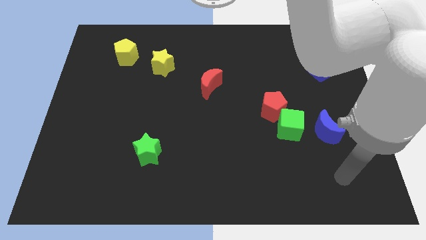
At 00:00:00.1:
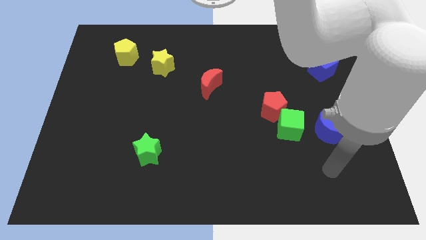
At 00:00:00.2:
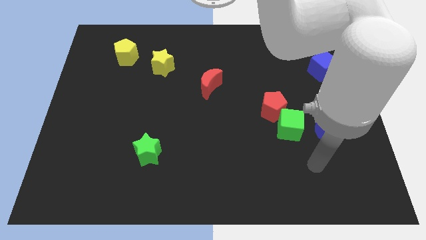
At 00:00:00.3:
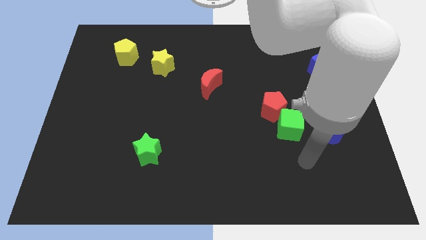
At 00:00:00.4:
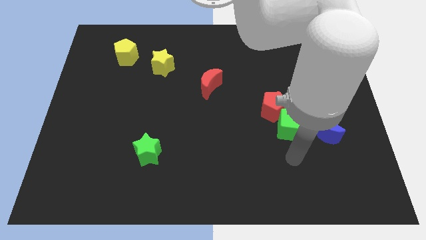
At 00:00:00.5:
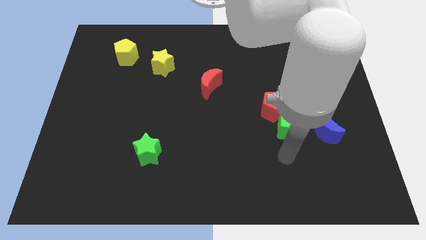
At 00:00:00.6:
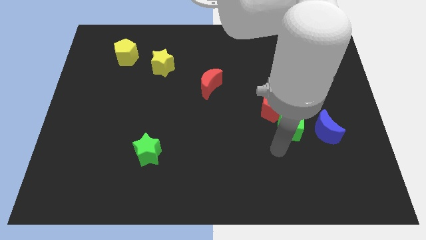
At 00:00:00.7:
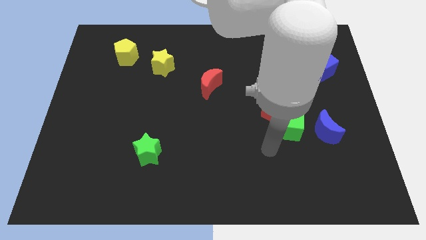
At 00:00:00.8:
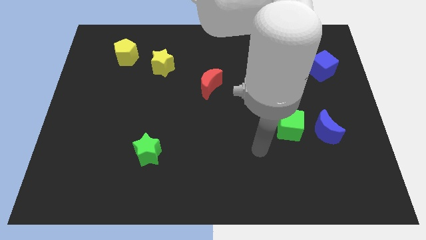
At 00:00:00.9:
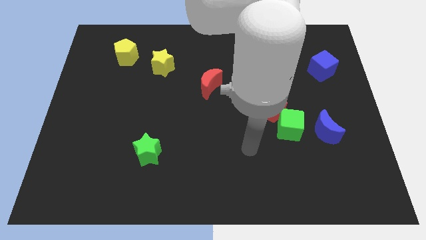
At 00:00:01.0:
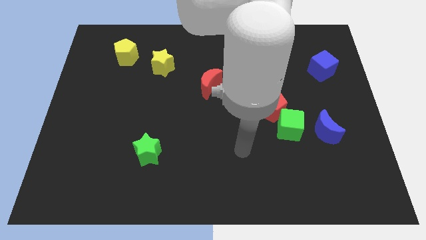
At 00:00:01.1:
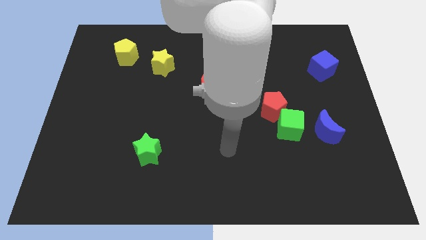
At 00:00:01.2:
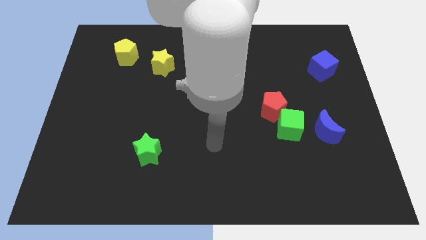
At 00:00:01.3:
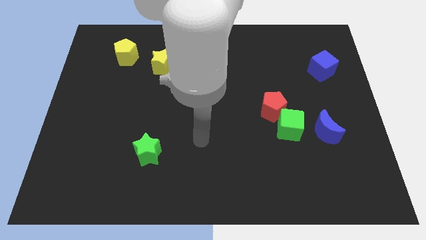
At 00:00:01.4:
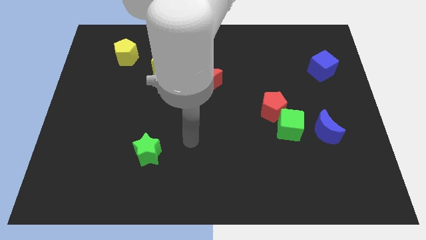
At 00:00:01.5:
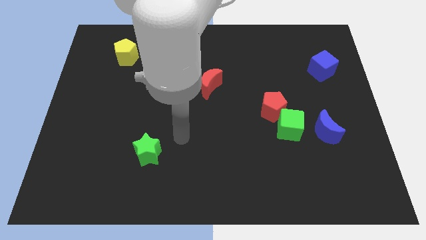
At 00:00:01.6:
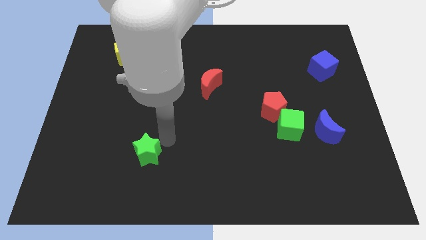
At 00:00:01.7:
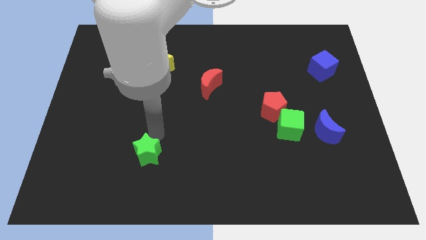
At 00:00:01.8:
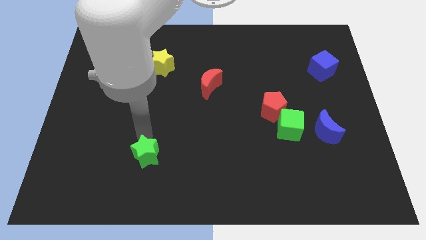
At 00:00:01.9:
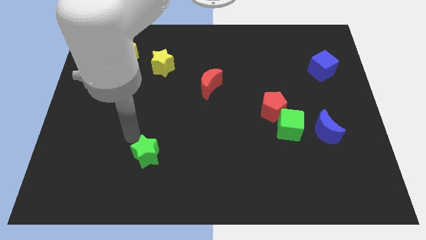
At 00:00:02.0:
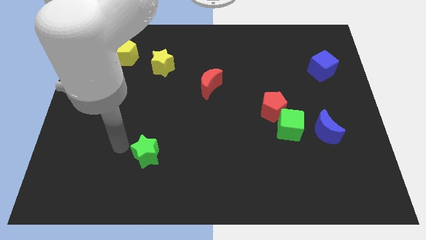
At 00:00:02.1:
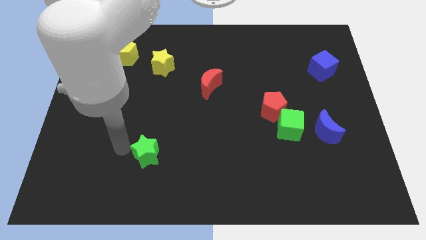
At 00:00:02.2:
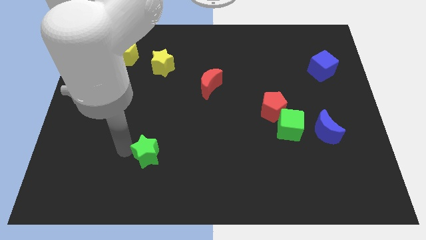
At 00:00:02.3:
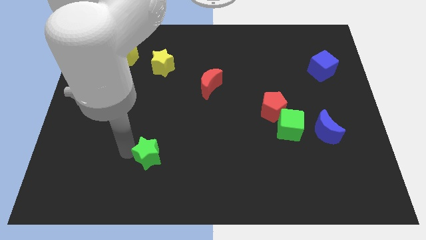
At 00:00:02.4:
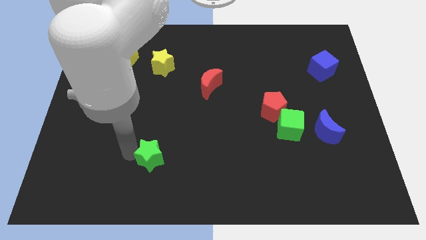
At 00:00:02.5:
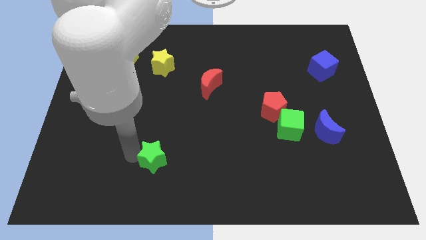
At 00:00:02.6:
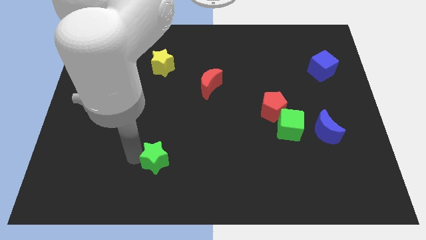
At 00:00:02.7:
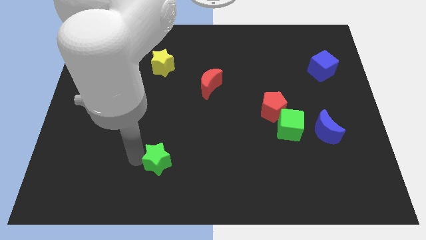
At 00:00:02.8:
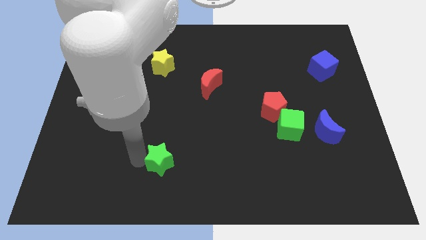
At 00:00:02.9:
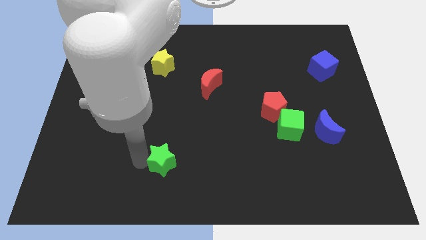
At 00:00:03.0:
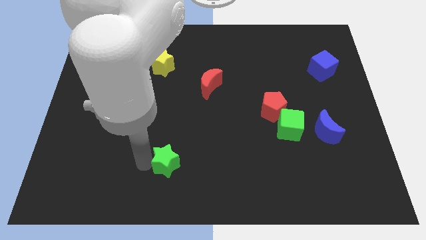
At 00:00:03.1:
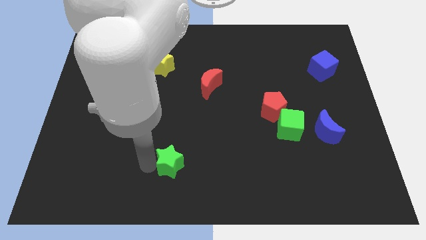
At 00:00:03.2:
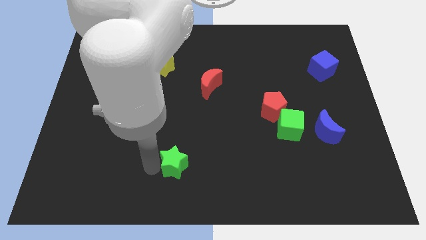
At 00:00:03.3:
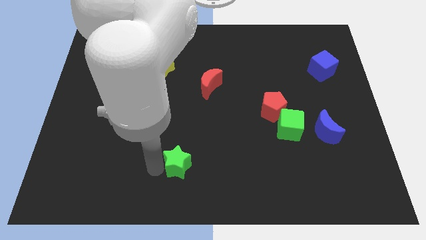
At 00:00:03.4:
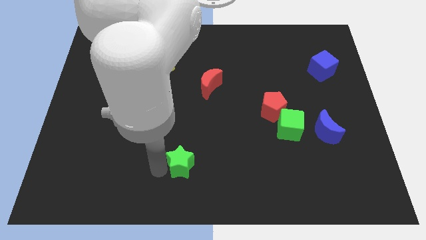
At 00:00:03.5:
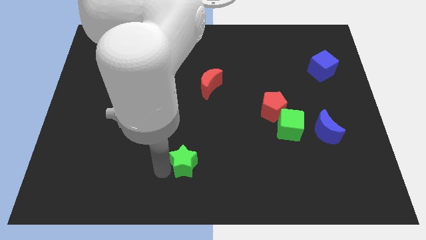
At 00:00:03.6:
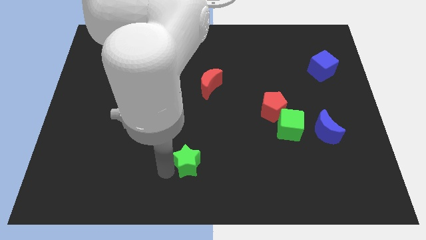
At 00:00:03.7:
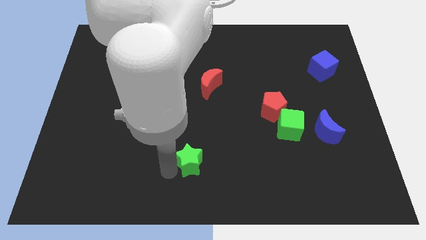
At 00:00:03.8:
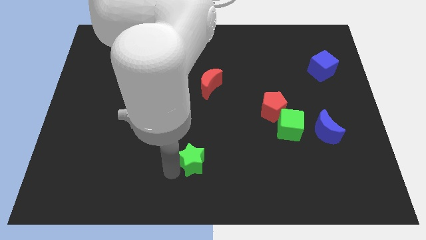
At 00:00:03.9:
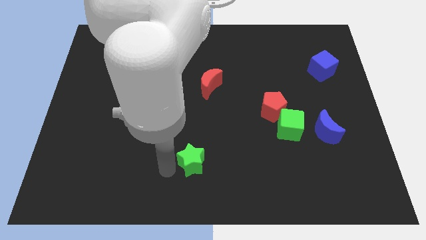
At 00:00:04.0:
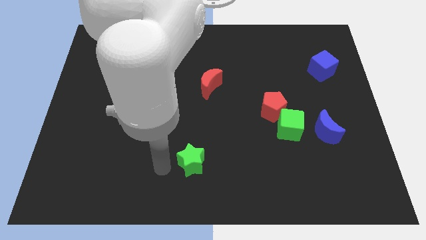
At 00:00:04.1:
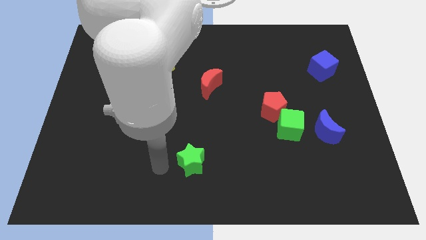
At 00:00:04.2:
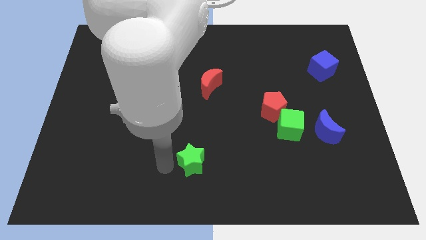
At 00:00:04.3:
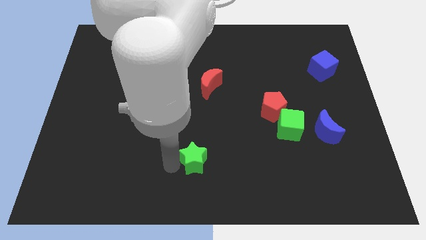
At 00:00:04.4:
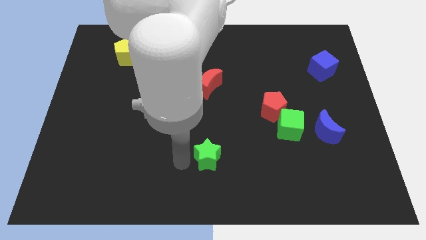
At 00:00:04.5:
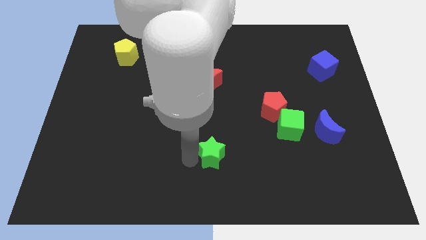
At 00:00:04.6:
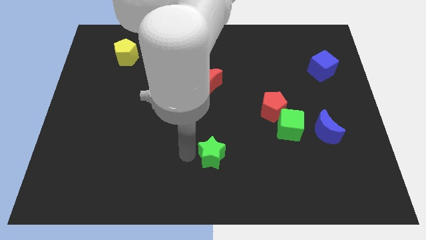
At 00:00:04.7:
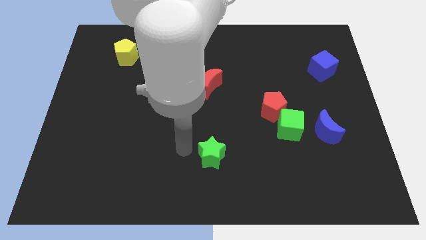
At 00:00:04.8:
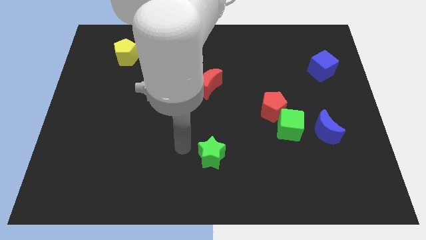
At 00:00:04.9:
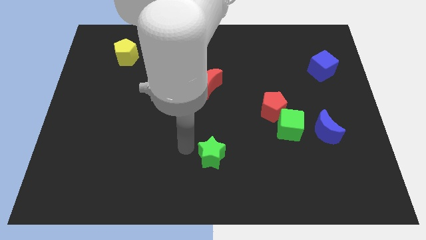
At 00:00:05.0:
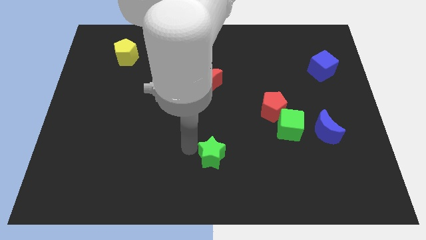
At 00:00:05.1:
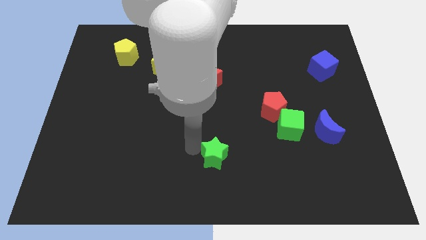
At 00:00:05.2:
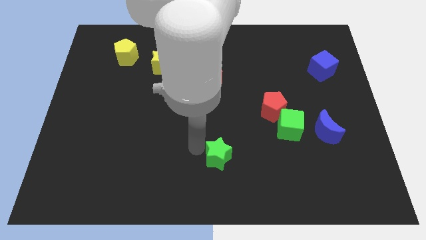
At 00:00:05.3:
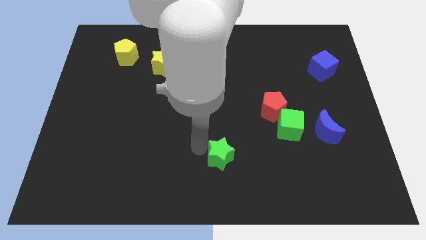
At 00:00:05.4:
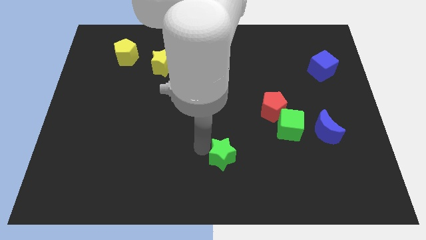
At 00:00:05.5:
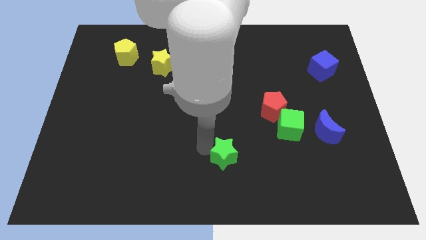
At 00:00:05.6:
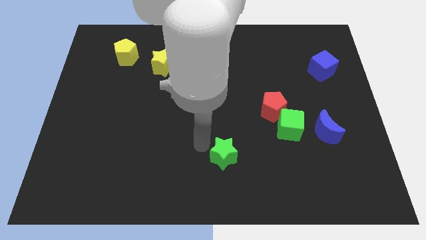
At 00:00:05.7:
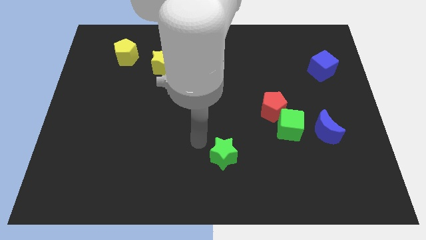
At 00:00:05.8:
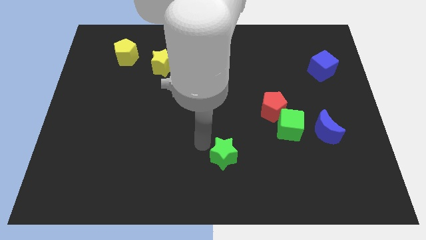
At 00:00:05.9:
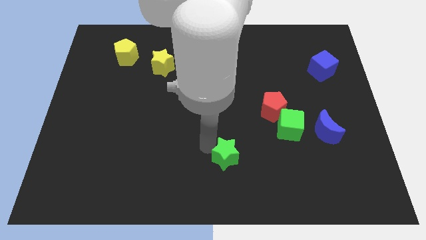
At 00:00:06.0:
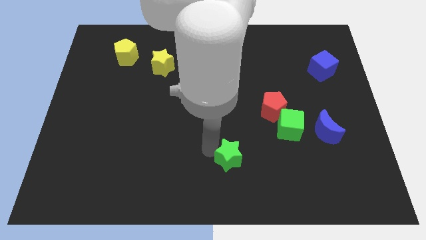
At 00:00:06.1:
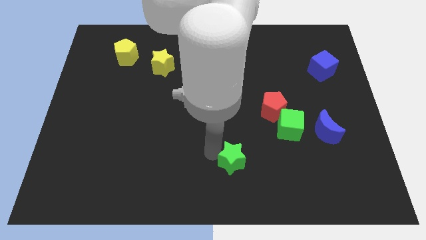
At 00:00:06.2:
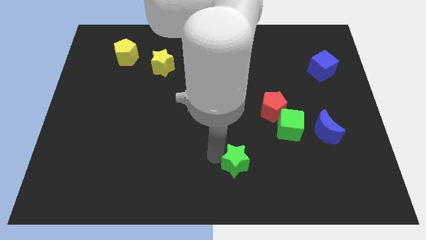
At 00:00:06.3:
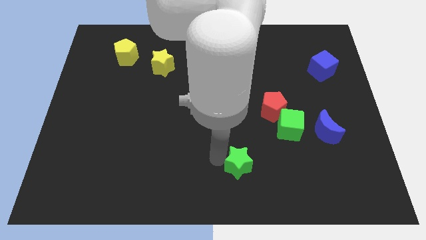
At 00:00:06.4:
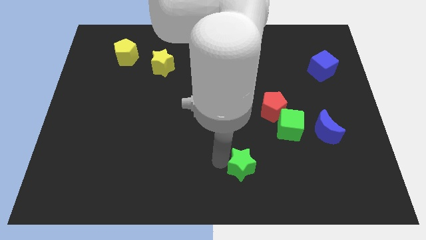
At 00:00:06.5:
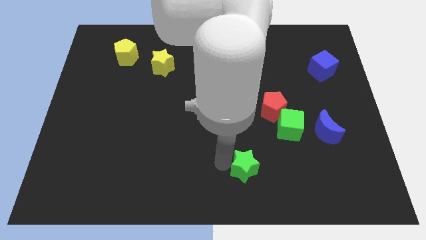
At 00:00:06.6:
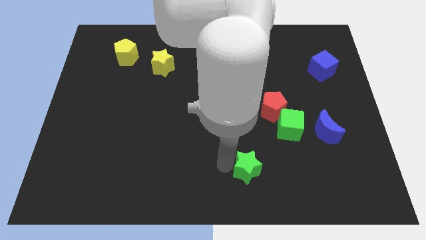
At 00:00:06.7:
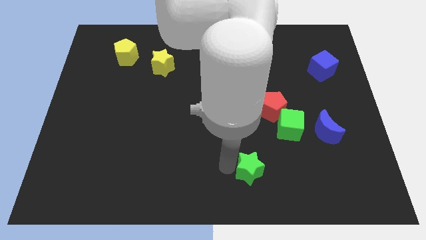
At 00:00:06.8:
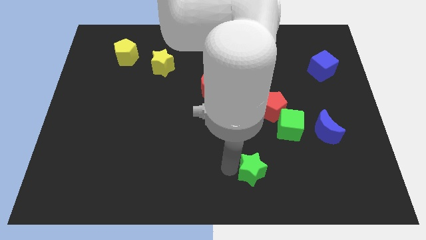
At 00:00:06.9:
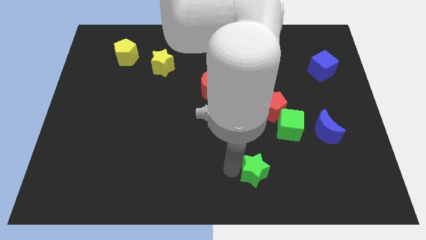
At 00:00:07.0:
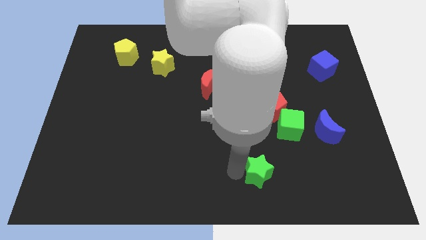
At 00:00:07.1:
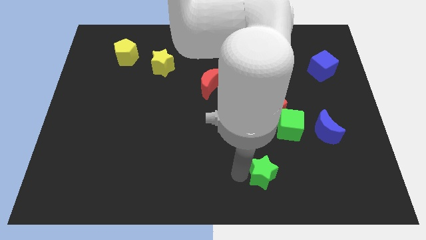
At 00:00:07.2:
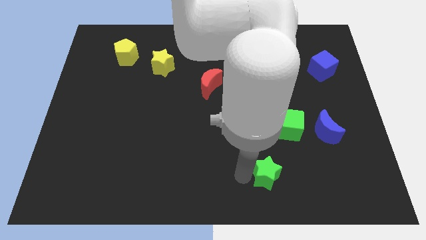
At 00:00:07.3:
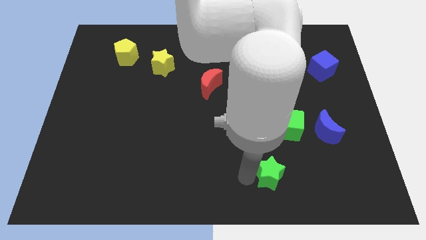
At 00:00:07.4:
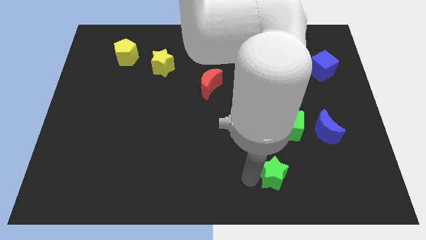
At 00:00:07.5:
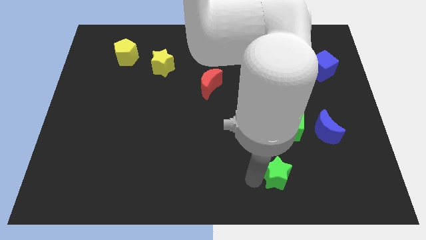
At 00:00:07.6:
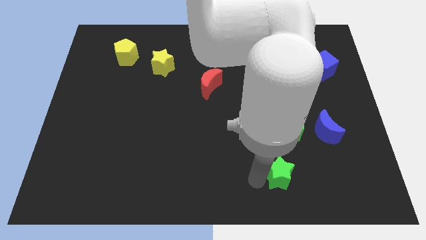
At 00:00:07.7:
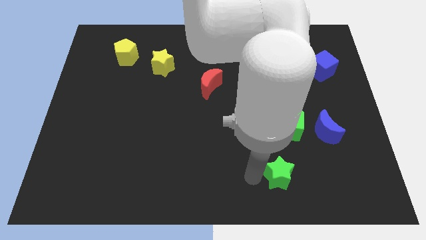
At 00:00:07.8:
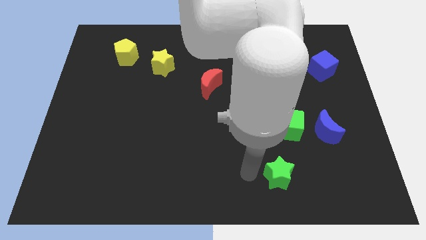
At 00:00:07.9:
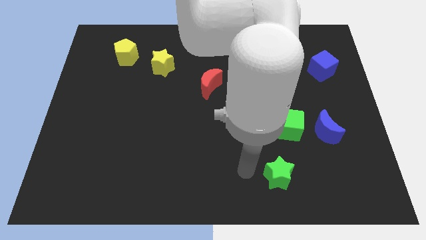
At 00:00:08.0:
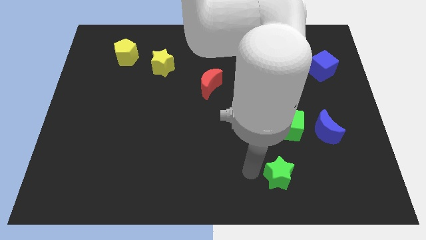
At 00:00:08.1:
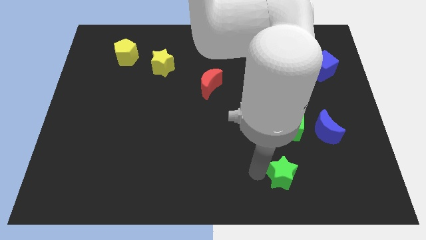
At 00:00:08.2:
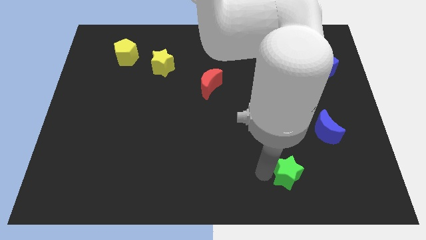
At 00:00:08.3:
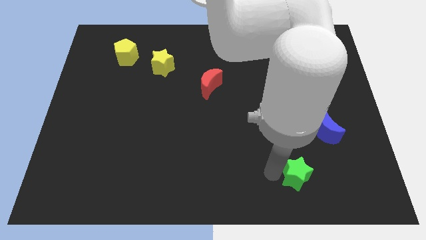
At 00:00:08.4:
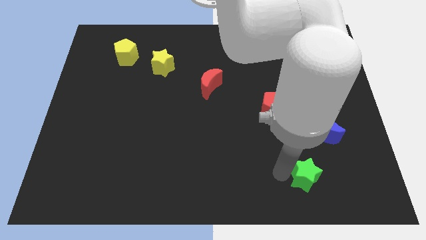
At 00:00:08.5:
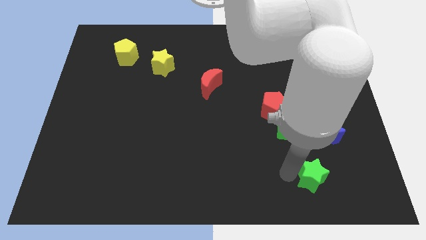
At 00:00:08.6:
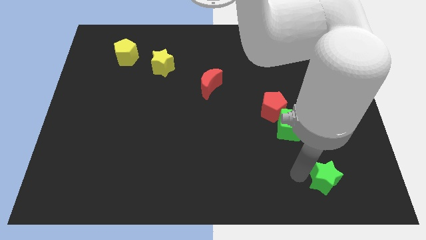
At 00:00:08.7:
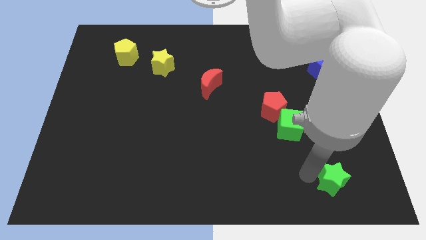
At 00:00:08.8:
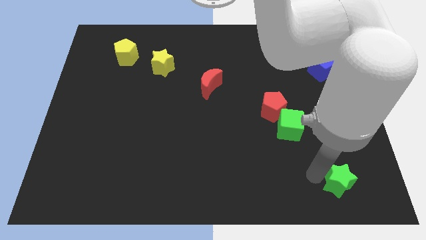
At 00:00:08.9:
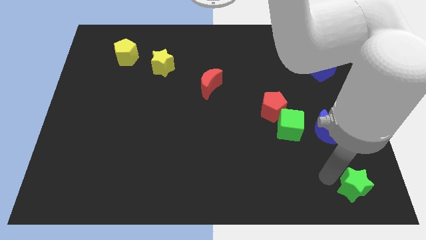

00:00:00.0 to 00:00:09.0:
slide the green star to the bottom right
